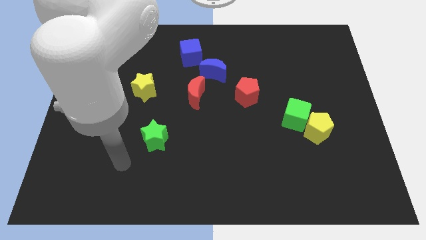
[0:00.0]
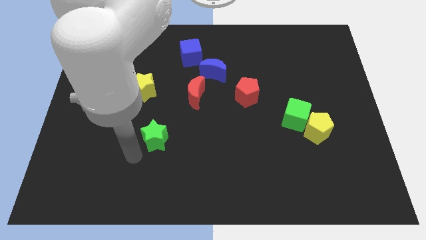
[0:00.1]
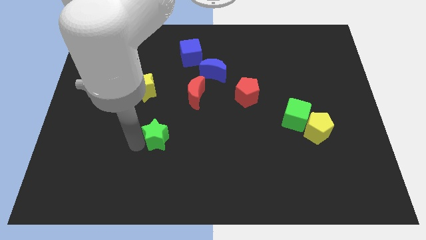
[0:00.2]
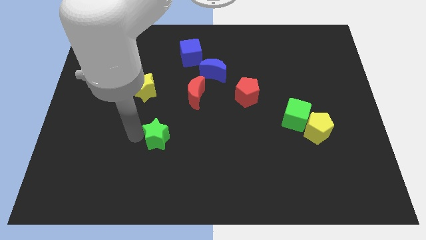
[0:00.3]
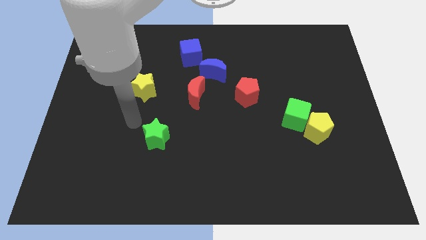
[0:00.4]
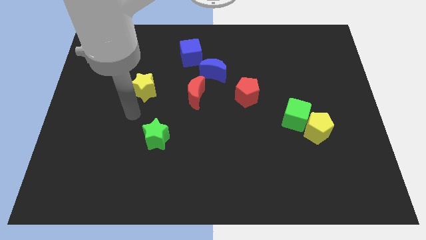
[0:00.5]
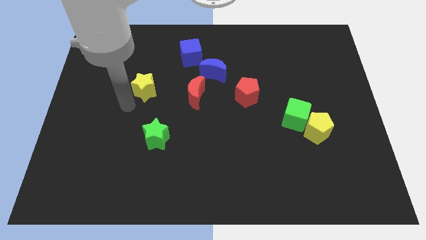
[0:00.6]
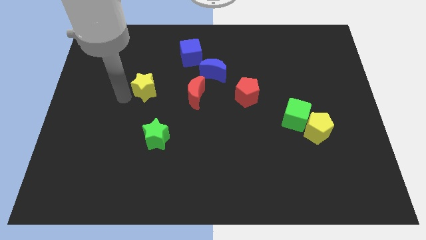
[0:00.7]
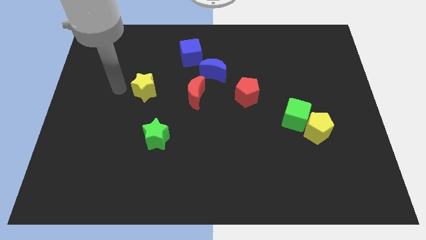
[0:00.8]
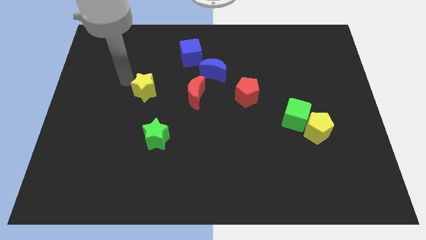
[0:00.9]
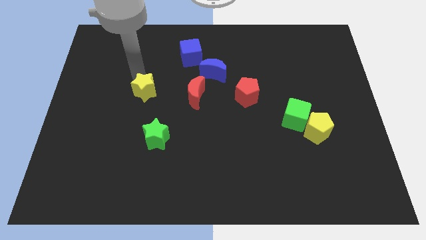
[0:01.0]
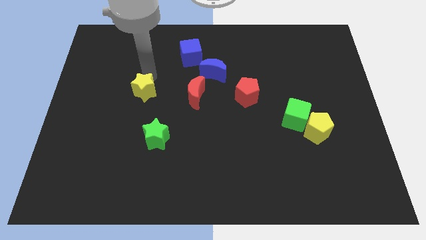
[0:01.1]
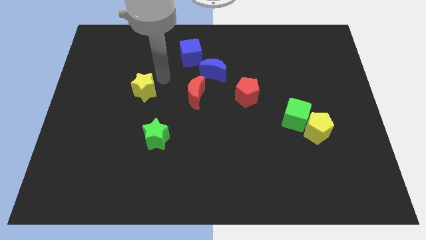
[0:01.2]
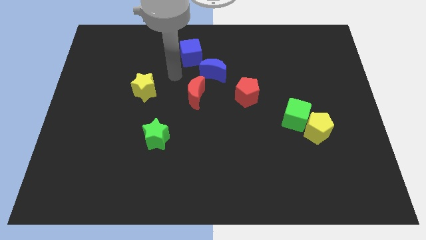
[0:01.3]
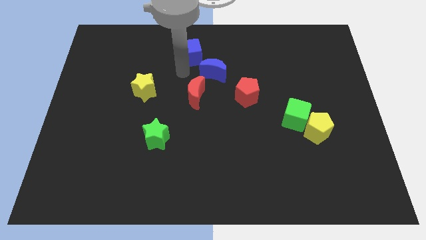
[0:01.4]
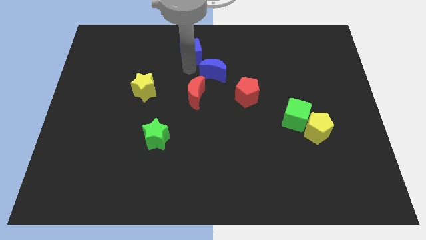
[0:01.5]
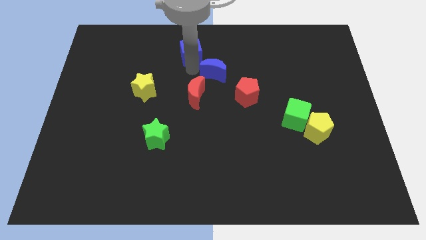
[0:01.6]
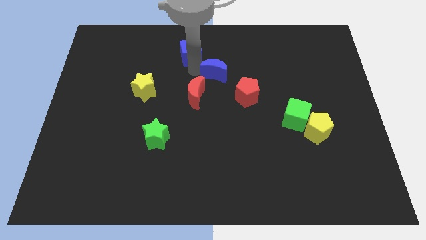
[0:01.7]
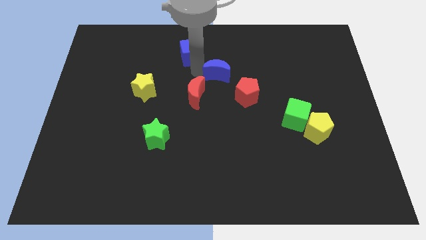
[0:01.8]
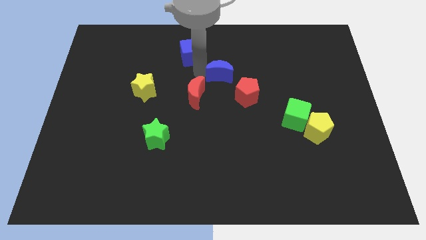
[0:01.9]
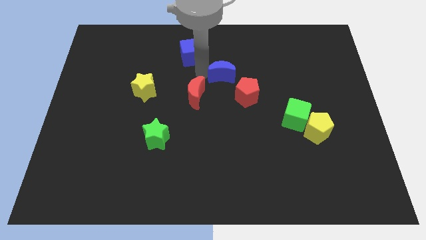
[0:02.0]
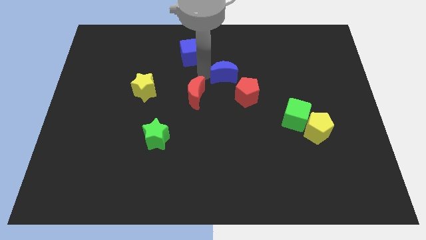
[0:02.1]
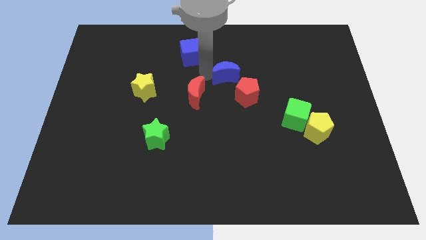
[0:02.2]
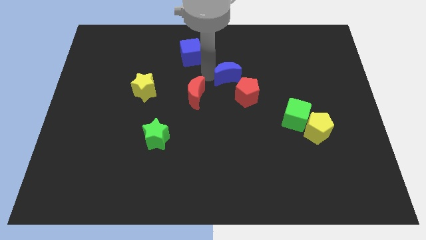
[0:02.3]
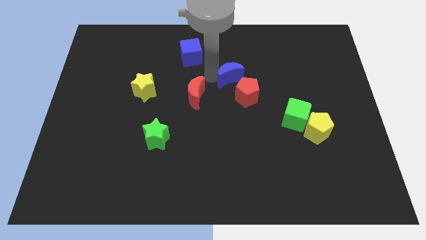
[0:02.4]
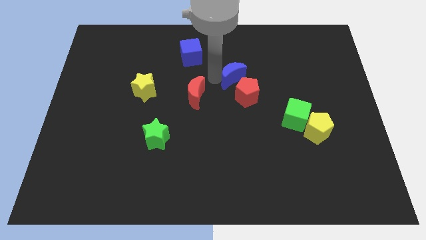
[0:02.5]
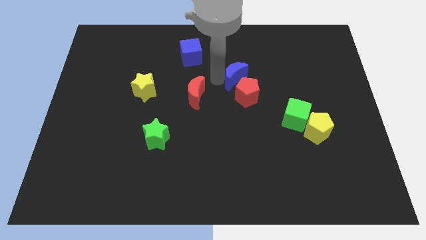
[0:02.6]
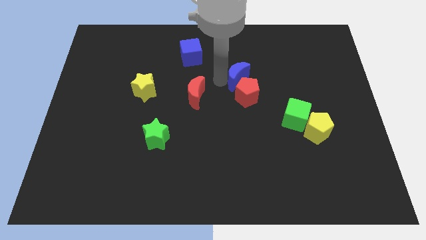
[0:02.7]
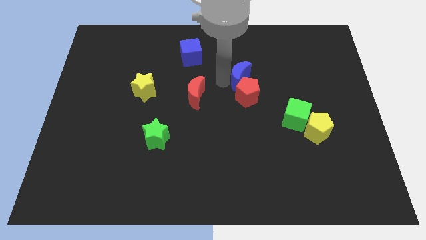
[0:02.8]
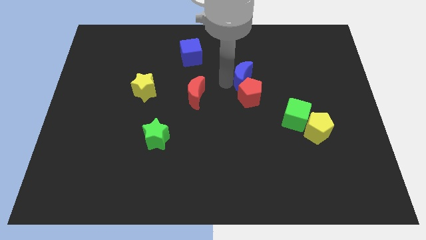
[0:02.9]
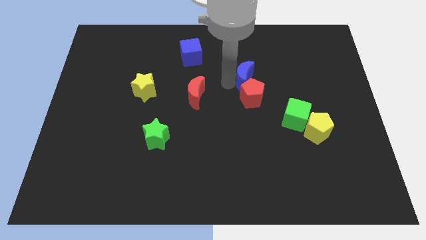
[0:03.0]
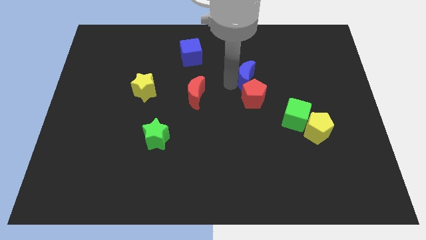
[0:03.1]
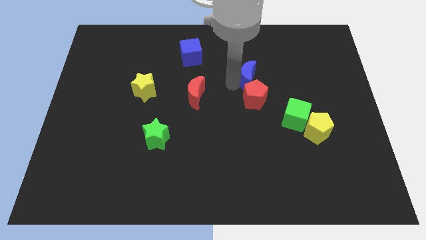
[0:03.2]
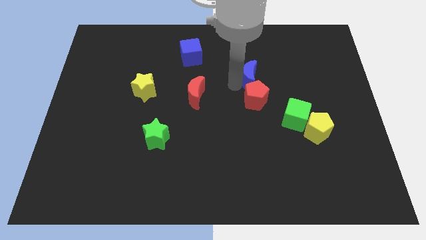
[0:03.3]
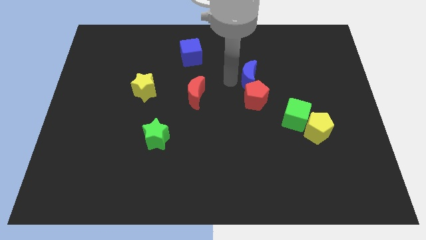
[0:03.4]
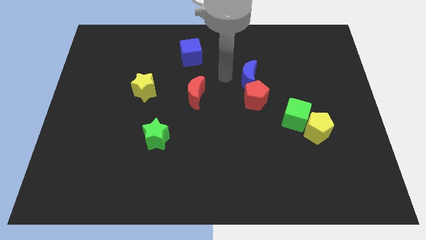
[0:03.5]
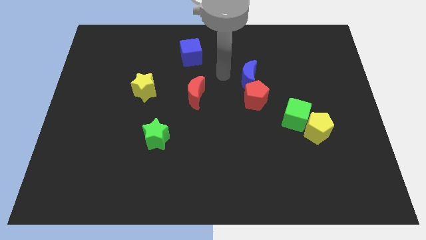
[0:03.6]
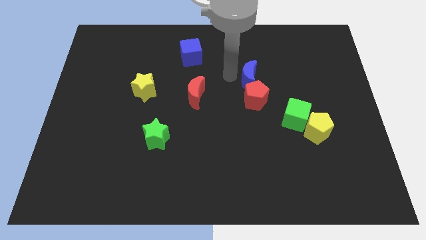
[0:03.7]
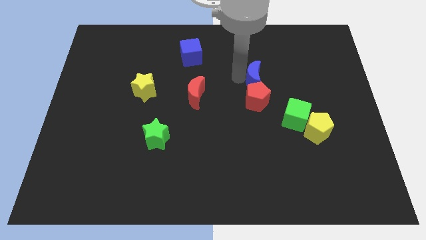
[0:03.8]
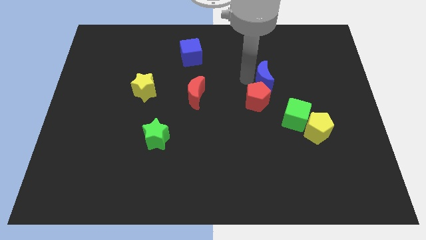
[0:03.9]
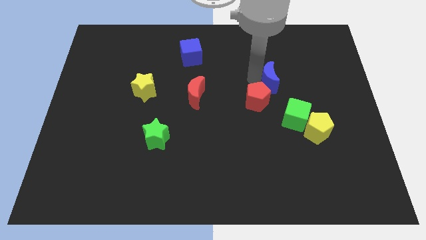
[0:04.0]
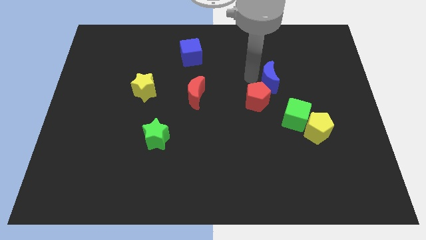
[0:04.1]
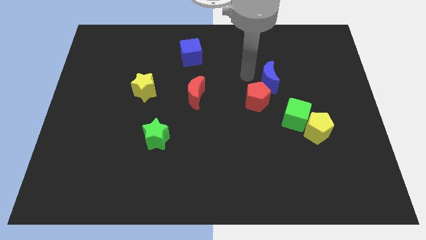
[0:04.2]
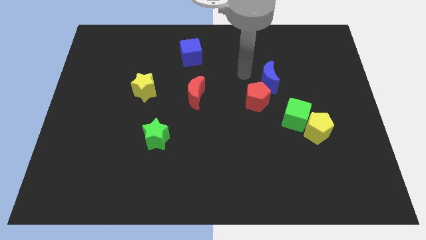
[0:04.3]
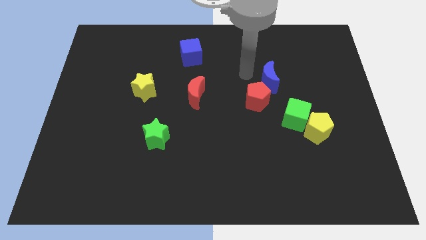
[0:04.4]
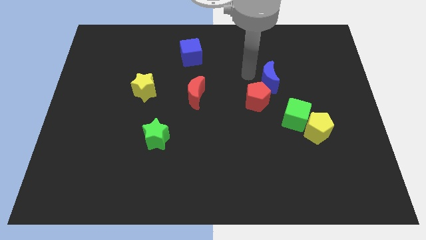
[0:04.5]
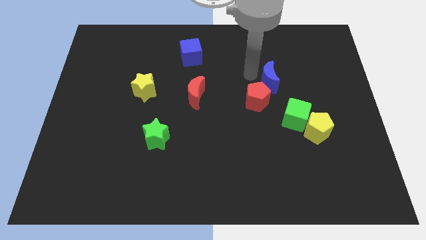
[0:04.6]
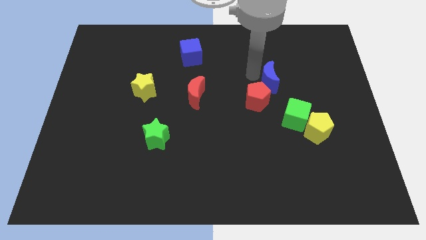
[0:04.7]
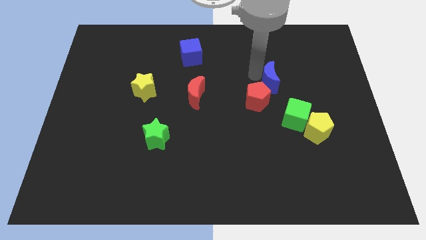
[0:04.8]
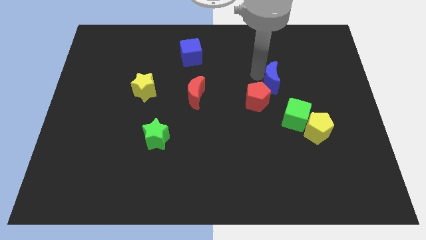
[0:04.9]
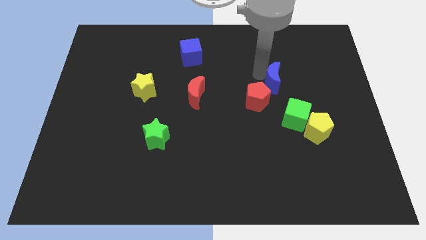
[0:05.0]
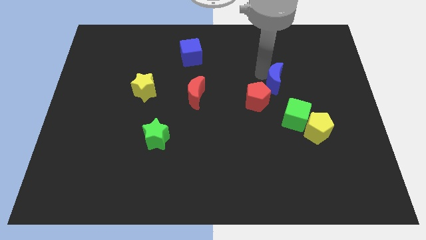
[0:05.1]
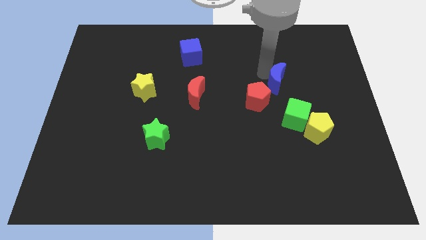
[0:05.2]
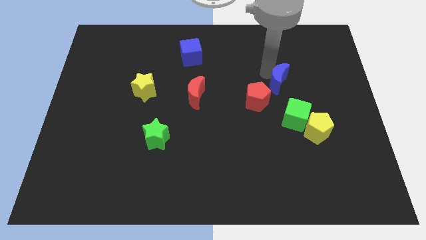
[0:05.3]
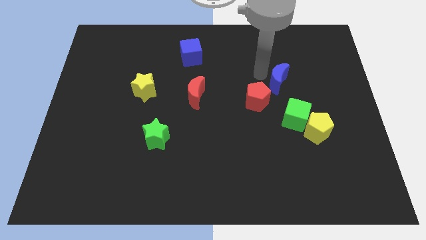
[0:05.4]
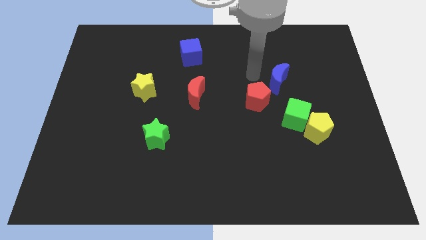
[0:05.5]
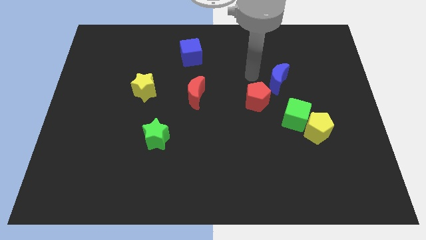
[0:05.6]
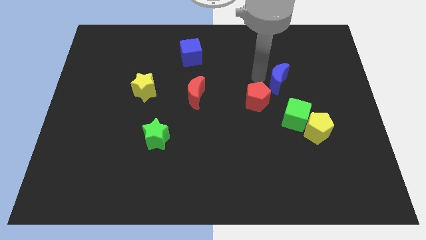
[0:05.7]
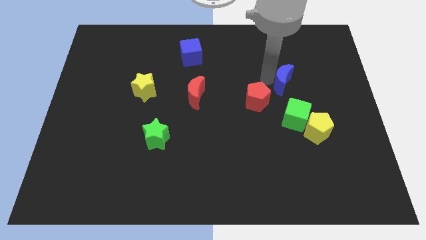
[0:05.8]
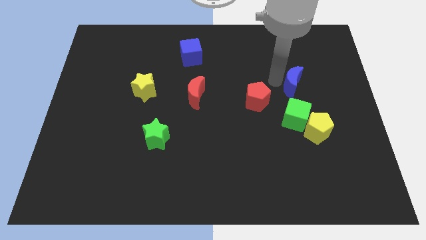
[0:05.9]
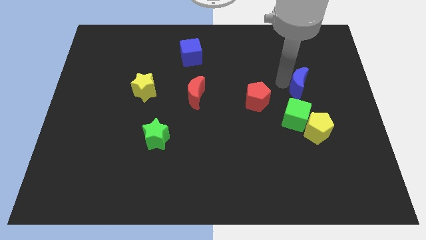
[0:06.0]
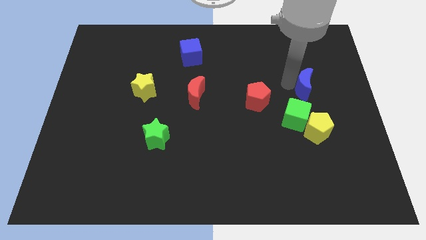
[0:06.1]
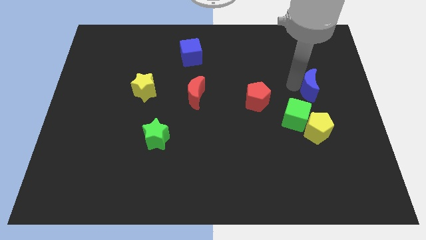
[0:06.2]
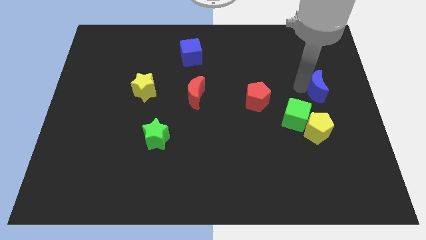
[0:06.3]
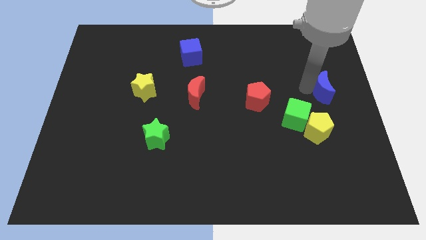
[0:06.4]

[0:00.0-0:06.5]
move the blue moon to the center right
